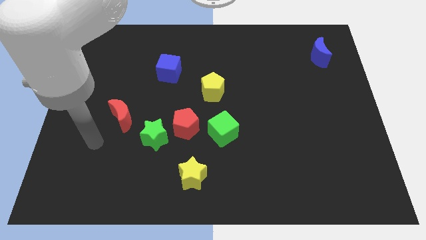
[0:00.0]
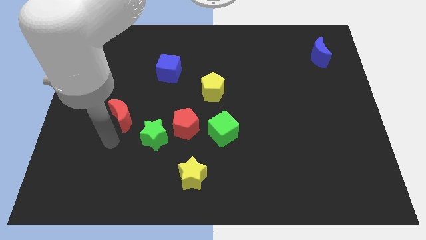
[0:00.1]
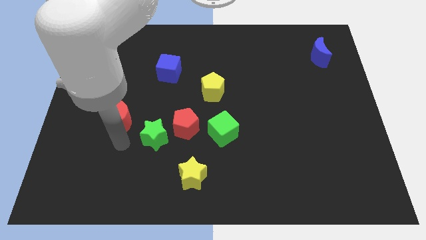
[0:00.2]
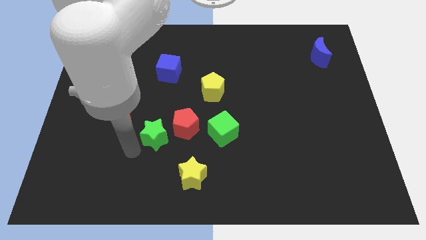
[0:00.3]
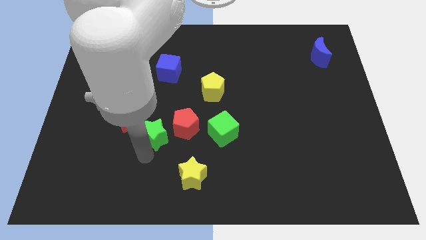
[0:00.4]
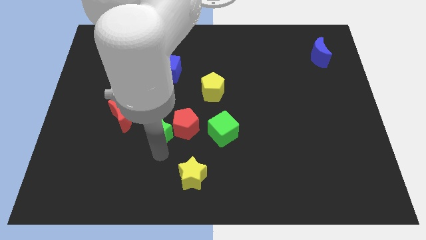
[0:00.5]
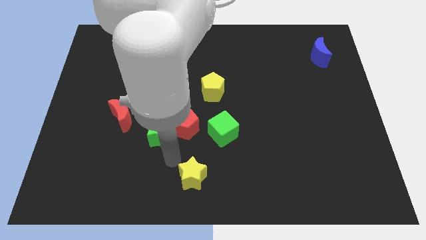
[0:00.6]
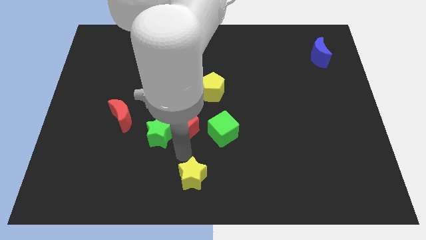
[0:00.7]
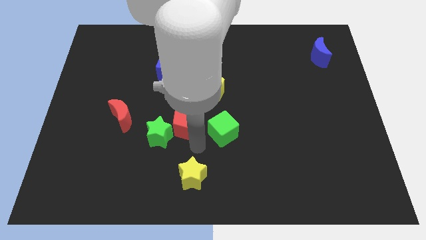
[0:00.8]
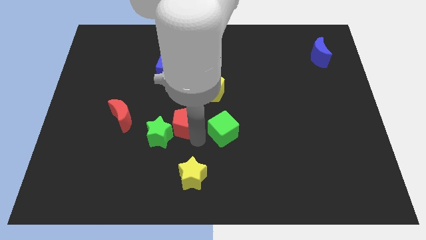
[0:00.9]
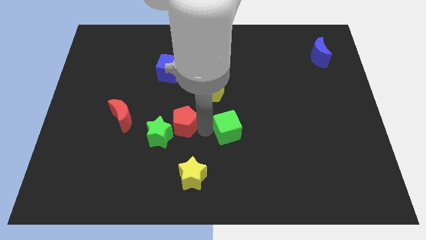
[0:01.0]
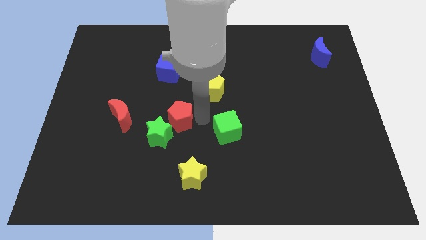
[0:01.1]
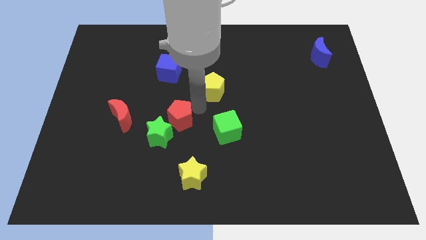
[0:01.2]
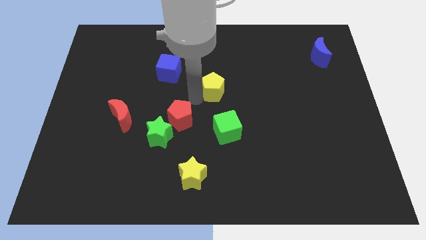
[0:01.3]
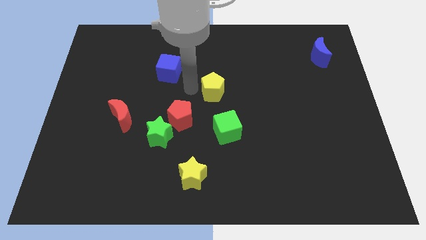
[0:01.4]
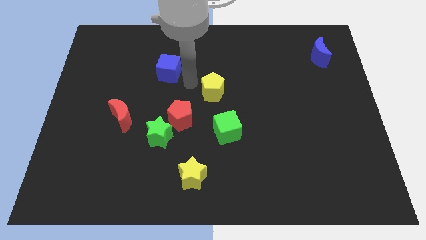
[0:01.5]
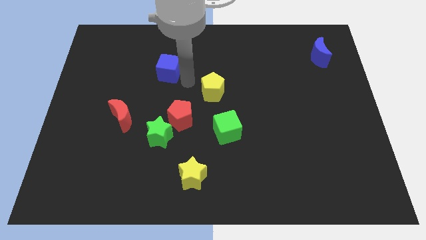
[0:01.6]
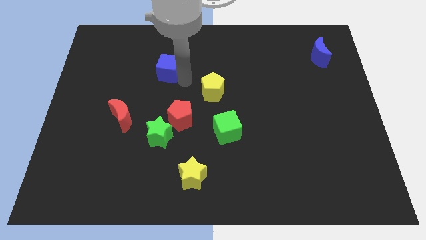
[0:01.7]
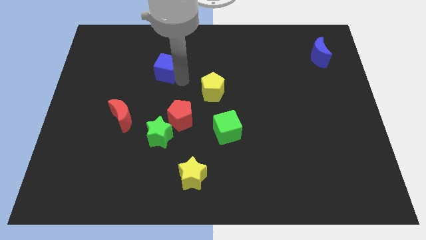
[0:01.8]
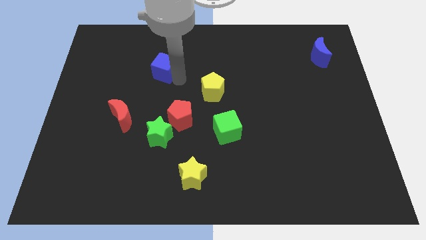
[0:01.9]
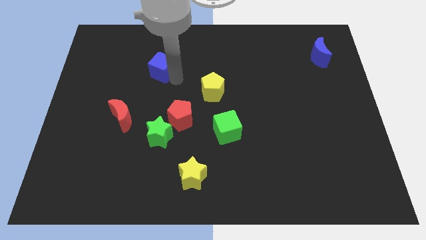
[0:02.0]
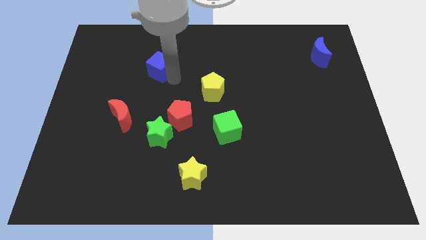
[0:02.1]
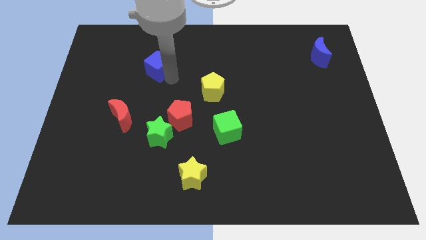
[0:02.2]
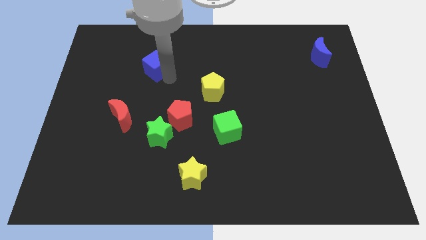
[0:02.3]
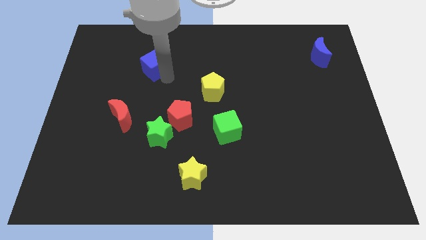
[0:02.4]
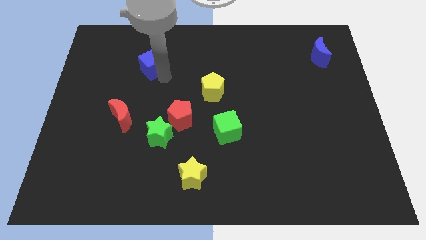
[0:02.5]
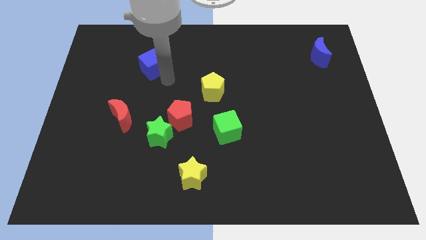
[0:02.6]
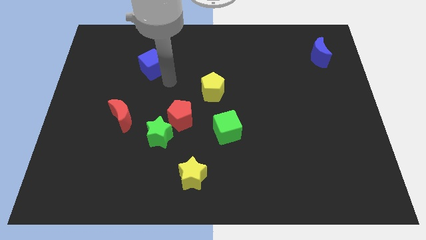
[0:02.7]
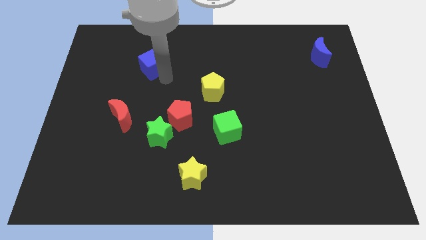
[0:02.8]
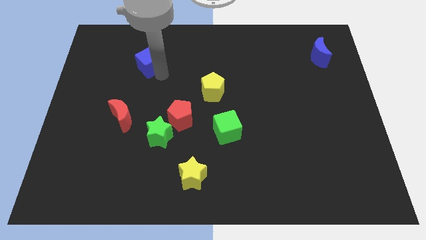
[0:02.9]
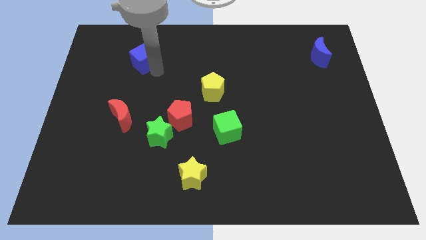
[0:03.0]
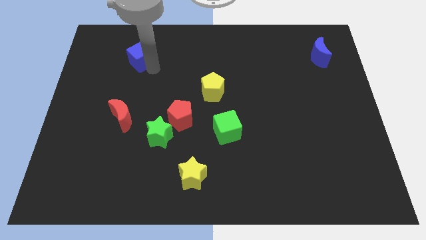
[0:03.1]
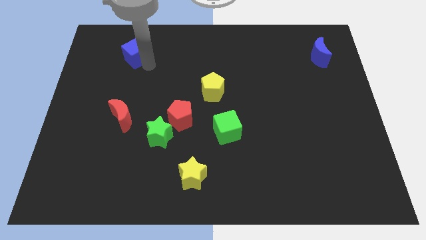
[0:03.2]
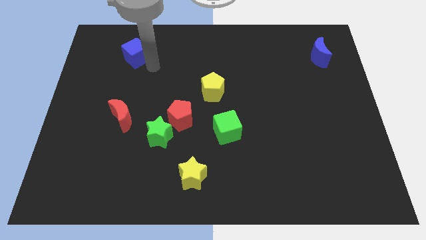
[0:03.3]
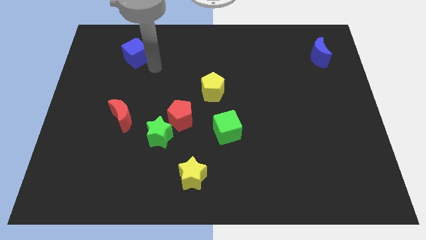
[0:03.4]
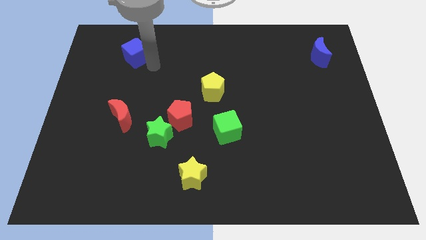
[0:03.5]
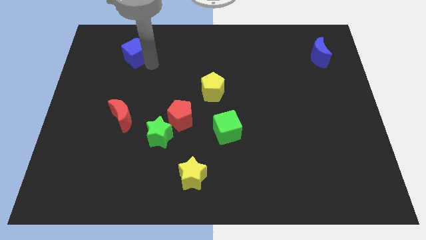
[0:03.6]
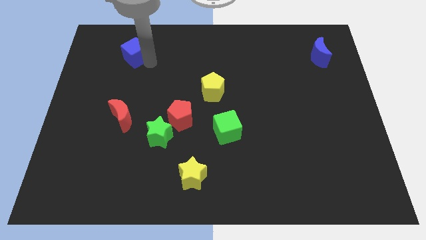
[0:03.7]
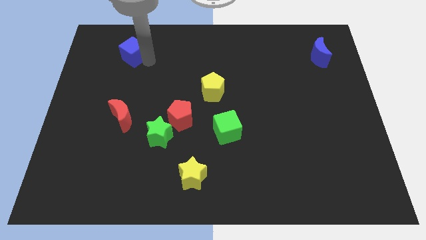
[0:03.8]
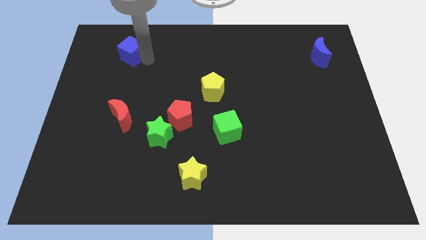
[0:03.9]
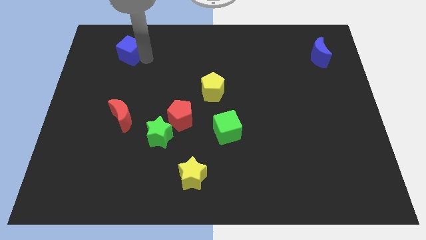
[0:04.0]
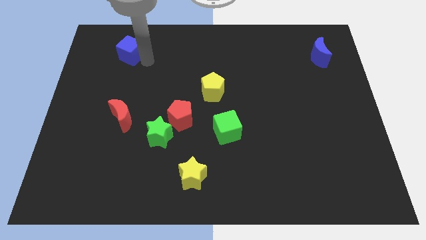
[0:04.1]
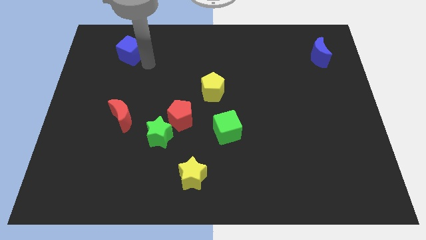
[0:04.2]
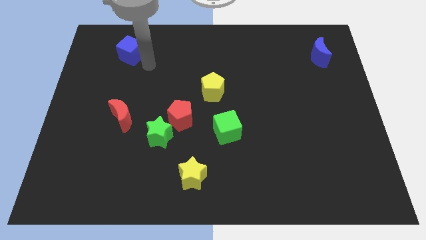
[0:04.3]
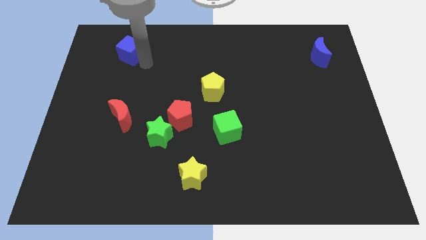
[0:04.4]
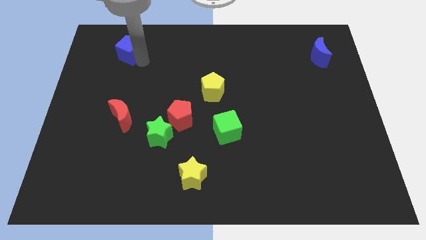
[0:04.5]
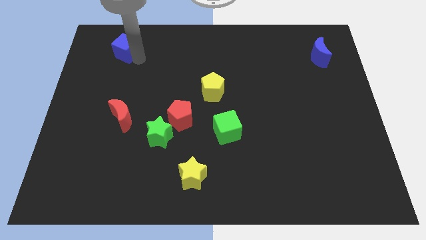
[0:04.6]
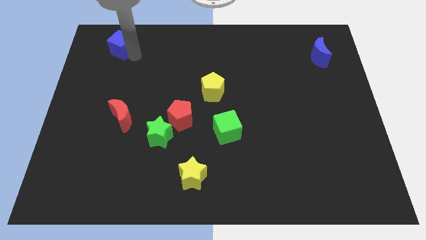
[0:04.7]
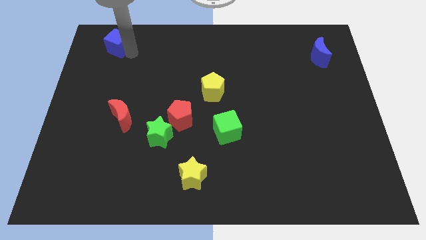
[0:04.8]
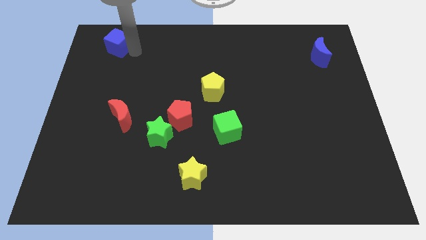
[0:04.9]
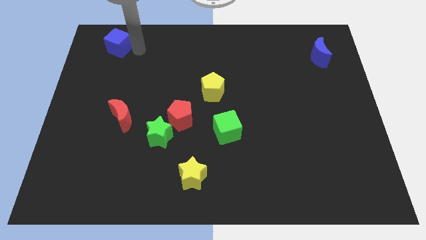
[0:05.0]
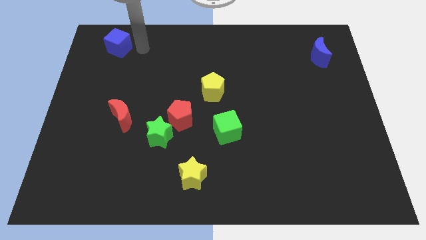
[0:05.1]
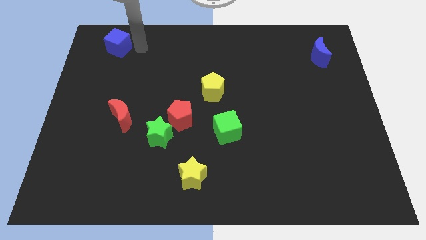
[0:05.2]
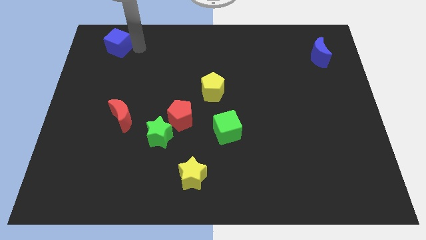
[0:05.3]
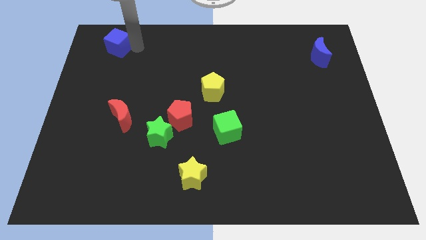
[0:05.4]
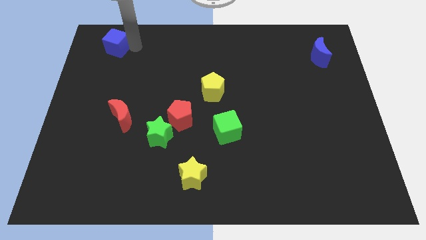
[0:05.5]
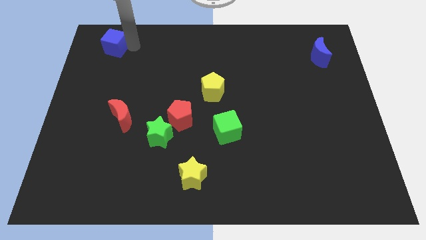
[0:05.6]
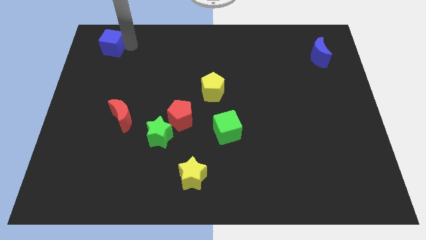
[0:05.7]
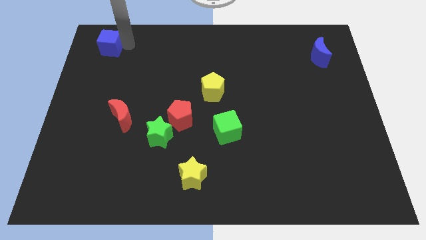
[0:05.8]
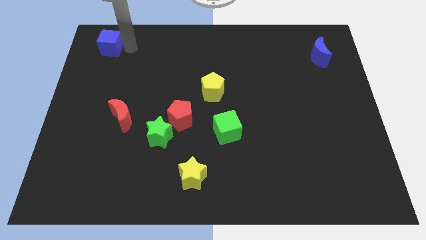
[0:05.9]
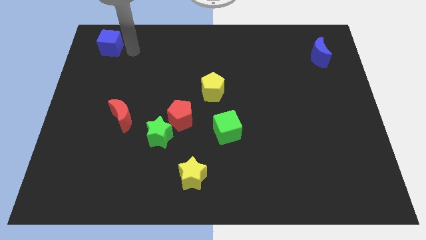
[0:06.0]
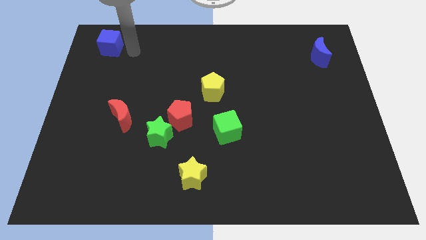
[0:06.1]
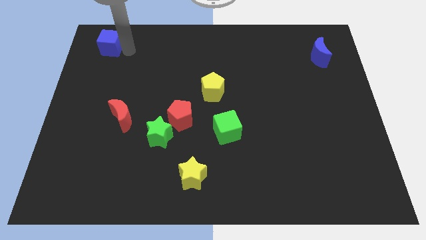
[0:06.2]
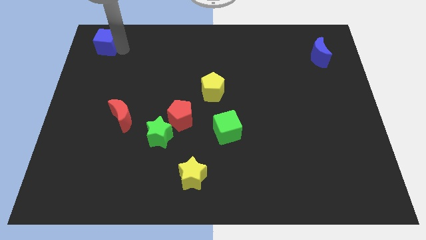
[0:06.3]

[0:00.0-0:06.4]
push the blue cube to the top left
